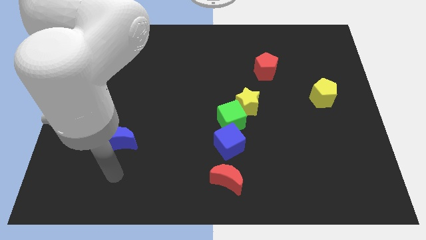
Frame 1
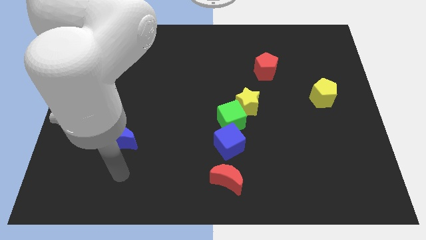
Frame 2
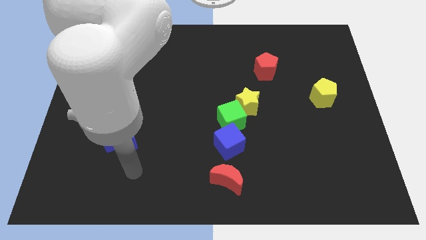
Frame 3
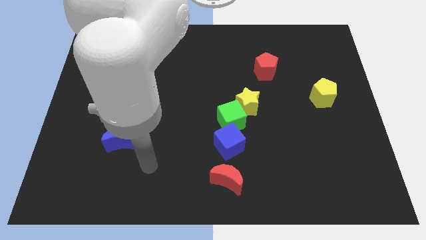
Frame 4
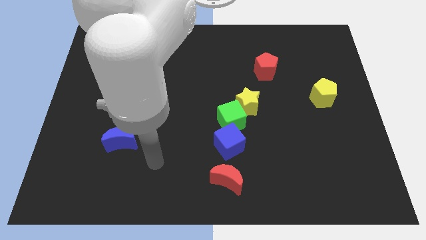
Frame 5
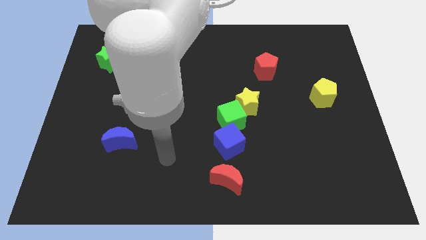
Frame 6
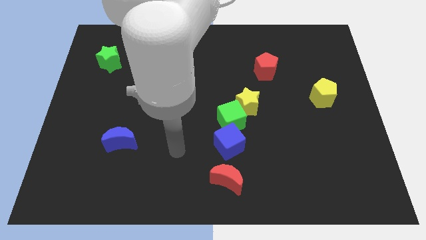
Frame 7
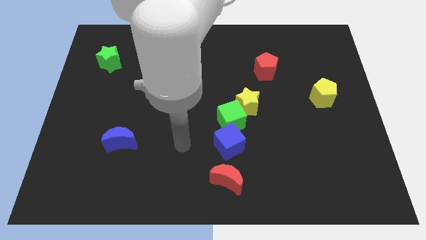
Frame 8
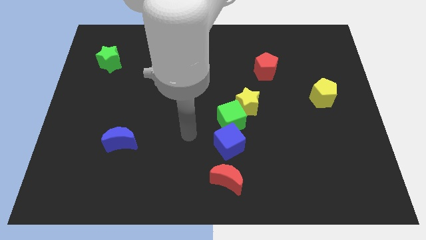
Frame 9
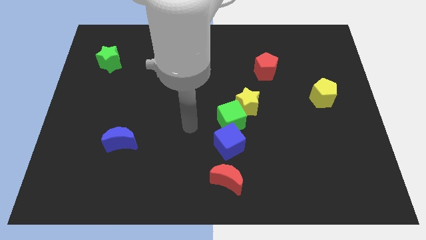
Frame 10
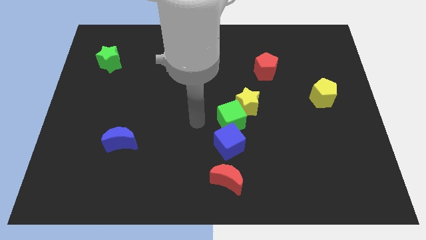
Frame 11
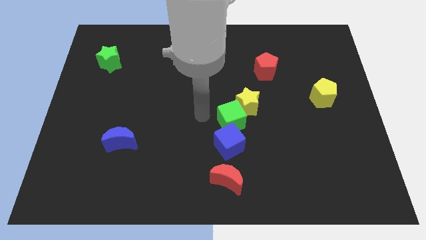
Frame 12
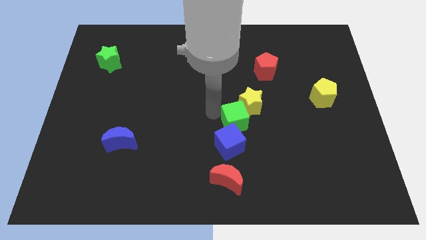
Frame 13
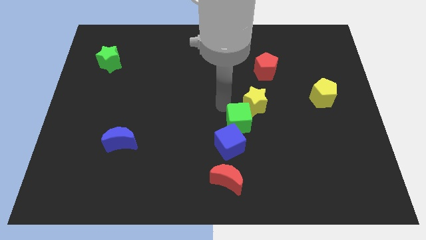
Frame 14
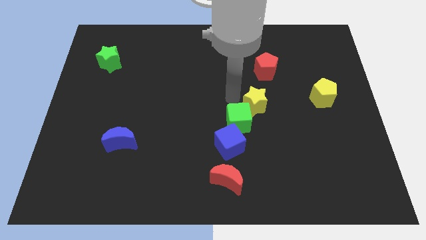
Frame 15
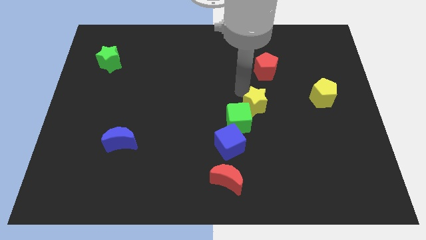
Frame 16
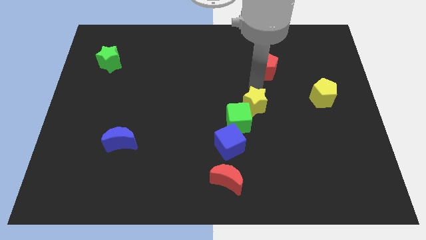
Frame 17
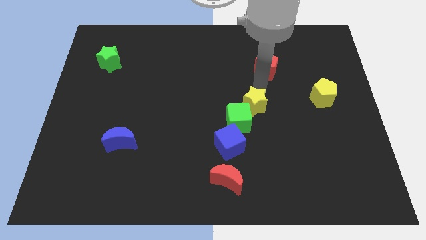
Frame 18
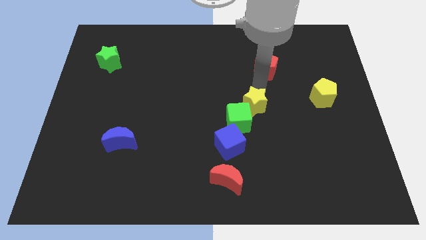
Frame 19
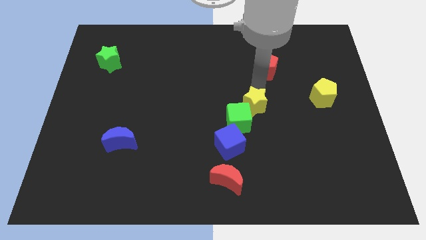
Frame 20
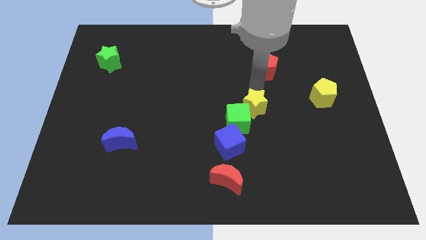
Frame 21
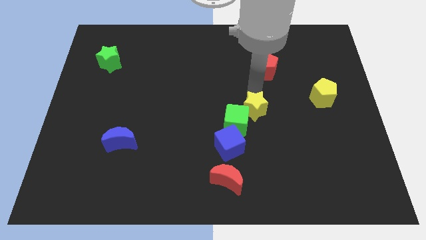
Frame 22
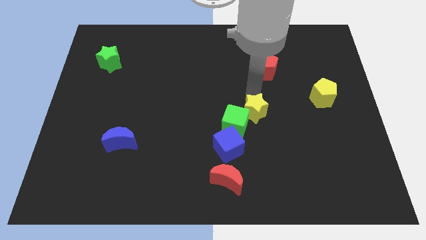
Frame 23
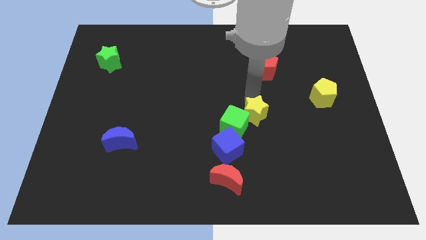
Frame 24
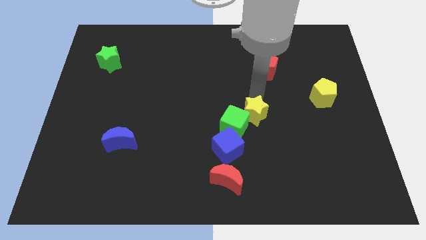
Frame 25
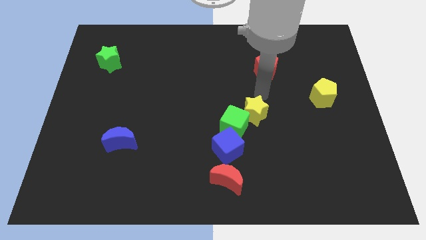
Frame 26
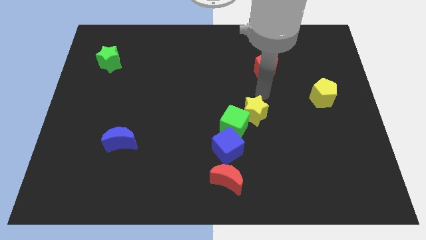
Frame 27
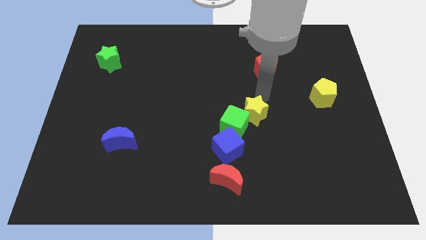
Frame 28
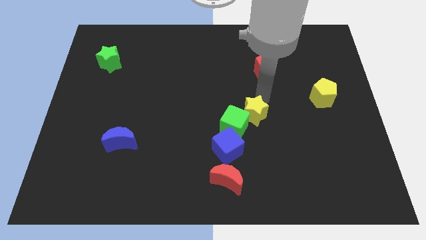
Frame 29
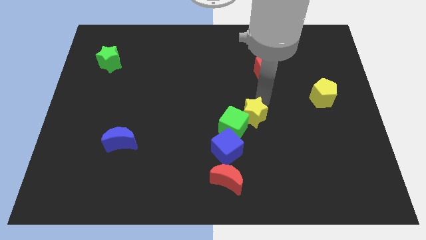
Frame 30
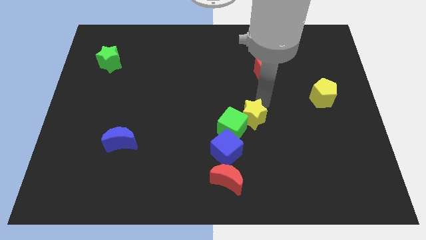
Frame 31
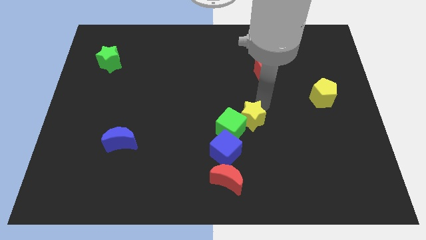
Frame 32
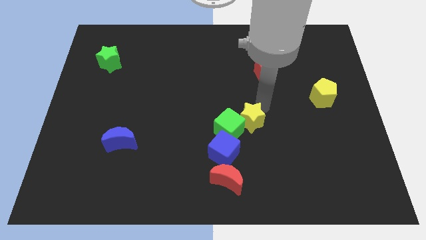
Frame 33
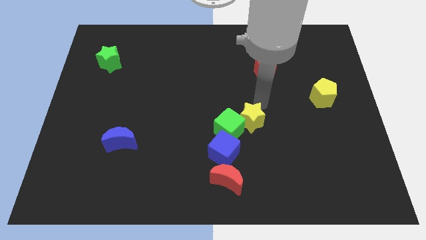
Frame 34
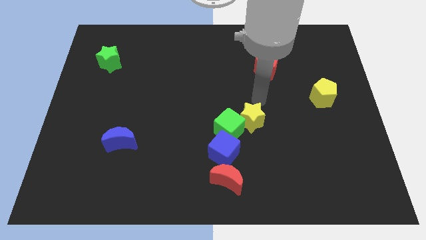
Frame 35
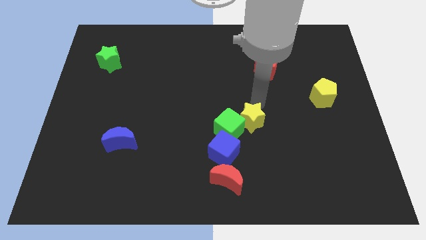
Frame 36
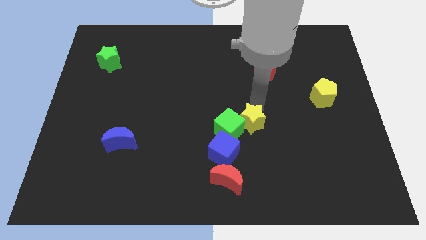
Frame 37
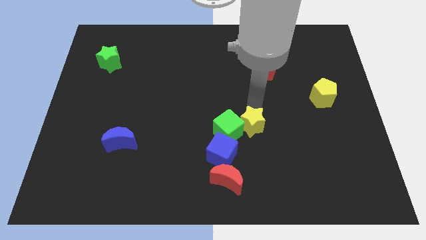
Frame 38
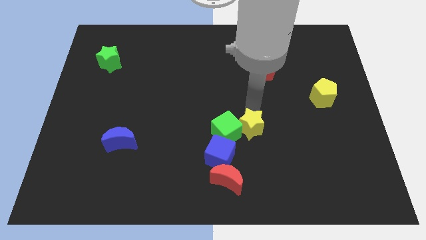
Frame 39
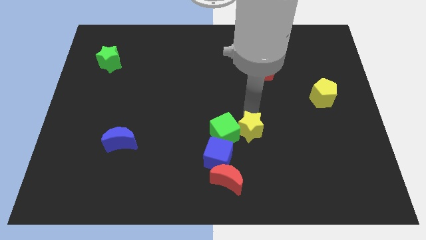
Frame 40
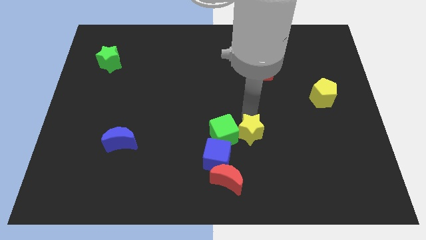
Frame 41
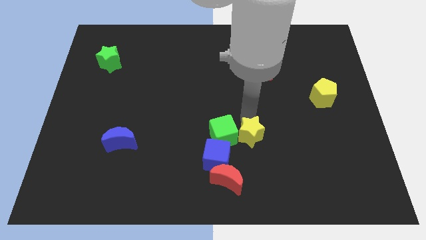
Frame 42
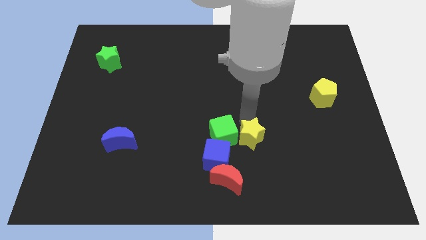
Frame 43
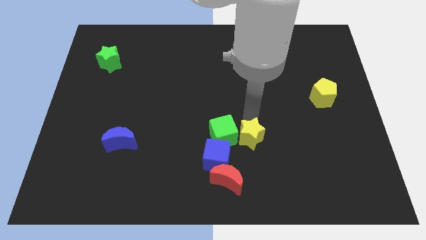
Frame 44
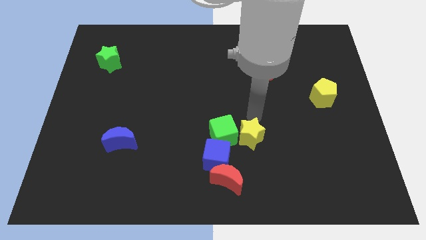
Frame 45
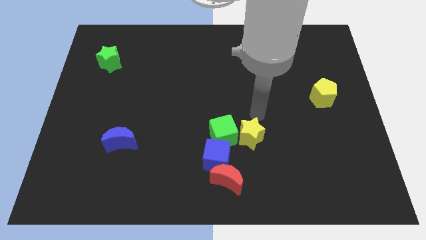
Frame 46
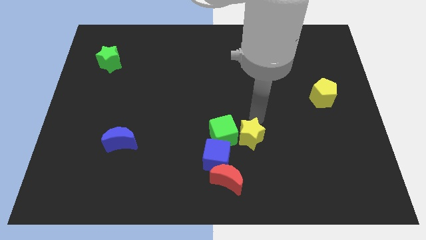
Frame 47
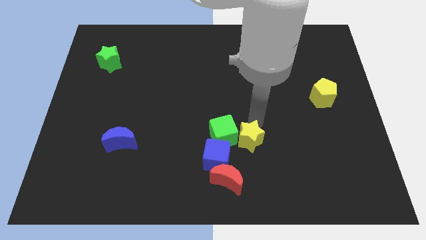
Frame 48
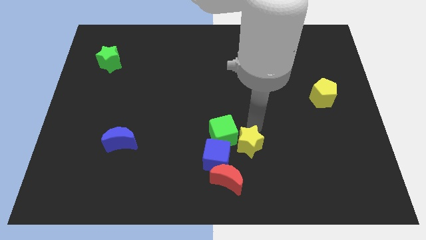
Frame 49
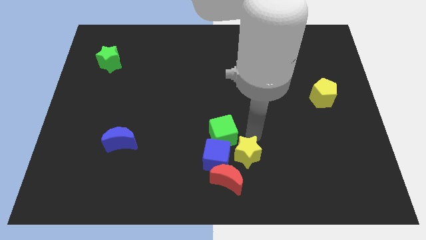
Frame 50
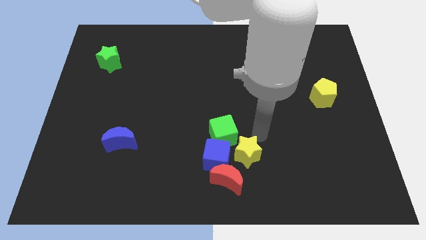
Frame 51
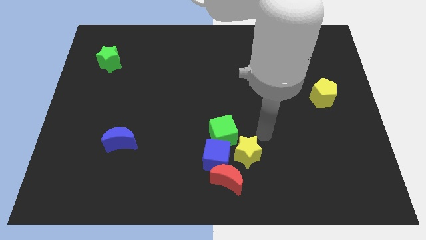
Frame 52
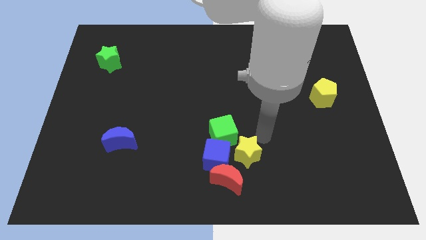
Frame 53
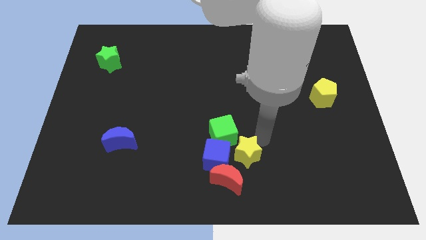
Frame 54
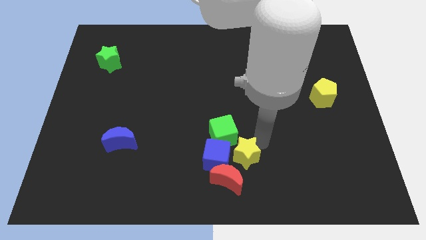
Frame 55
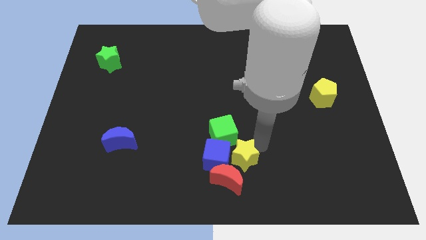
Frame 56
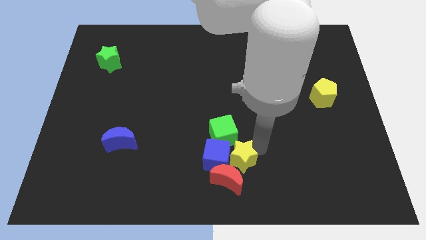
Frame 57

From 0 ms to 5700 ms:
push the yellow star to the red moon
